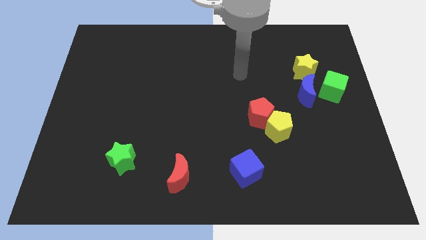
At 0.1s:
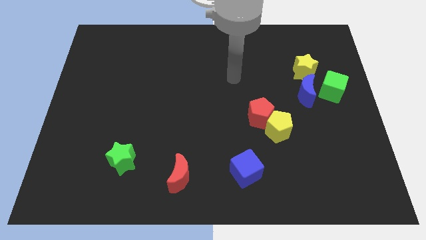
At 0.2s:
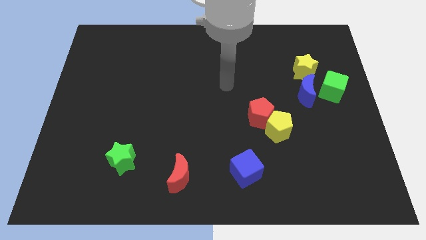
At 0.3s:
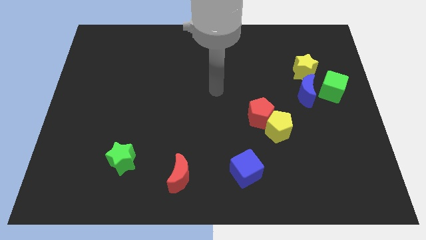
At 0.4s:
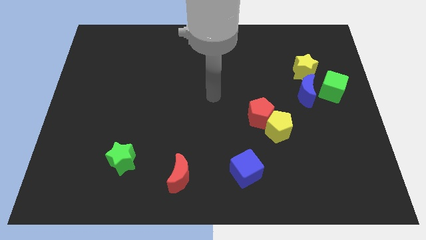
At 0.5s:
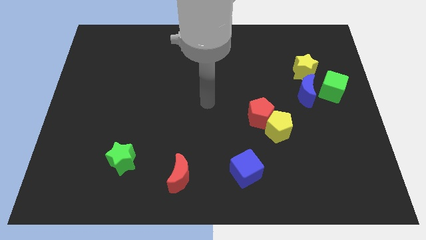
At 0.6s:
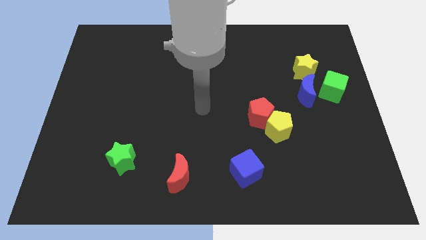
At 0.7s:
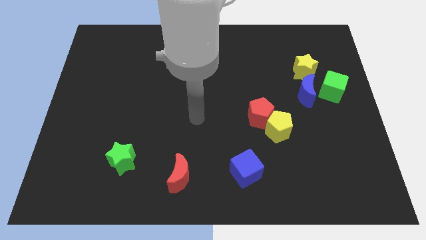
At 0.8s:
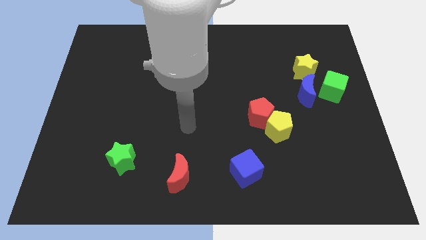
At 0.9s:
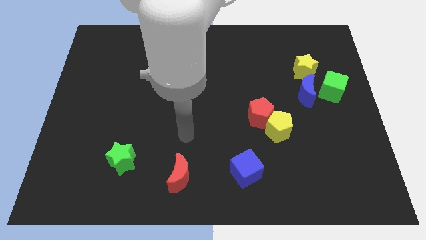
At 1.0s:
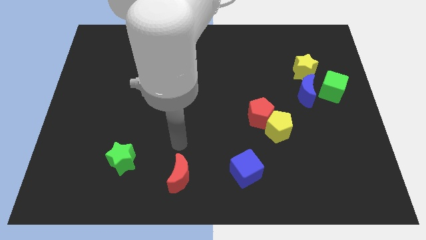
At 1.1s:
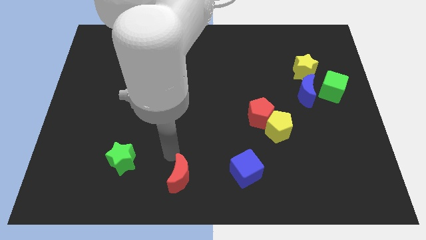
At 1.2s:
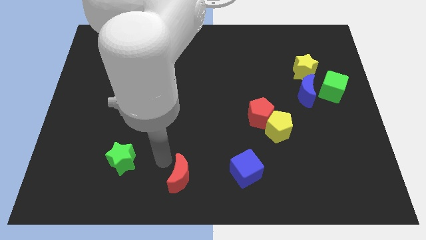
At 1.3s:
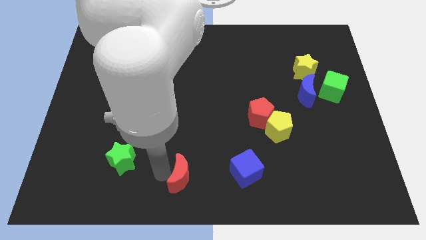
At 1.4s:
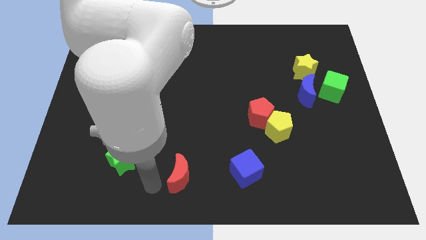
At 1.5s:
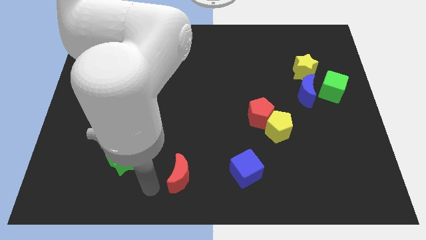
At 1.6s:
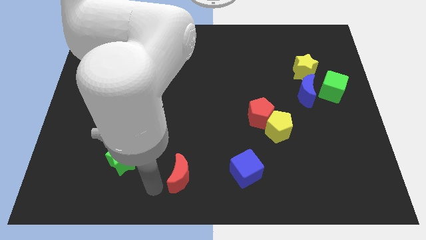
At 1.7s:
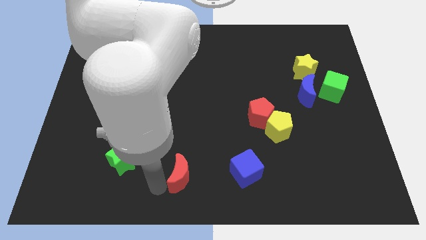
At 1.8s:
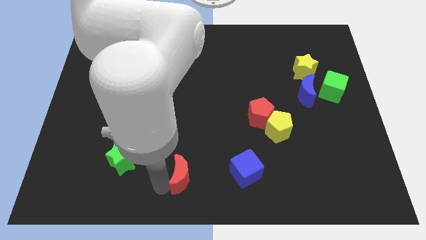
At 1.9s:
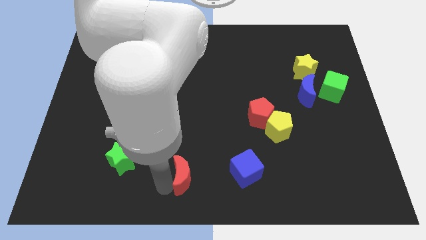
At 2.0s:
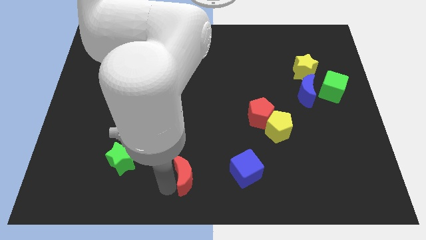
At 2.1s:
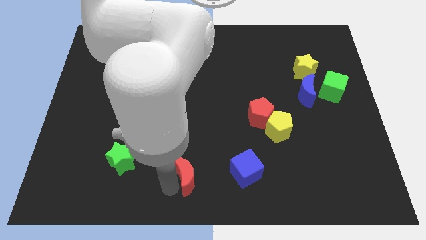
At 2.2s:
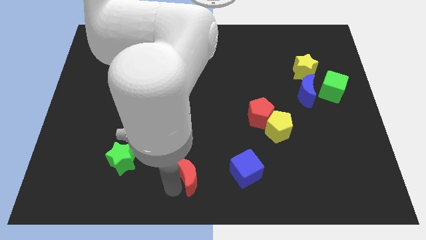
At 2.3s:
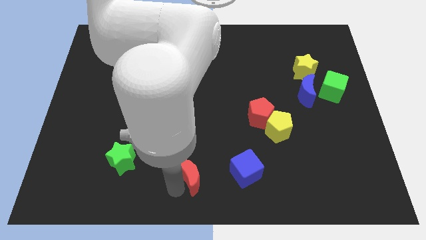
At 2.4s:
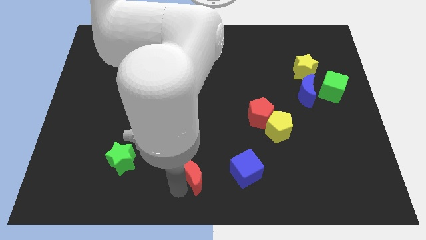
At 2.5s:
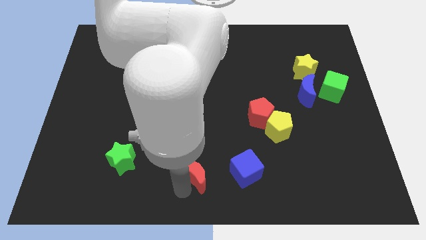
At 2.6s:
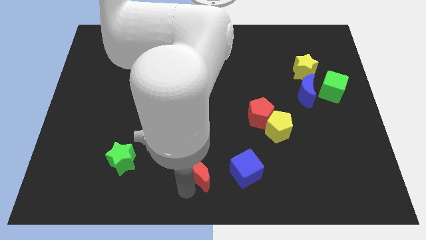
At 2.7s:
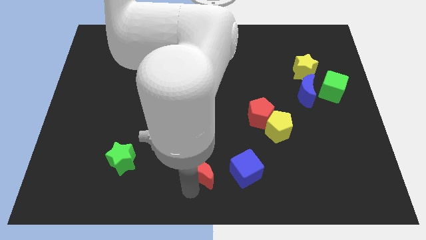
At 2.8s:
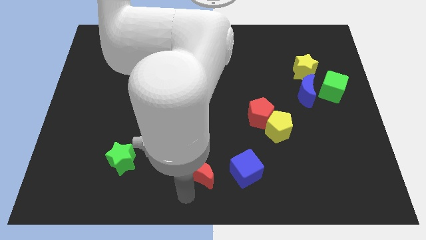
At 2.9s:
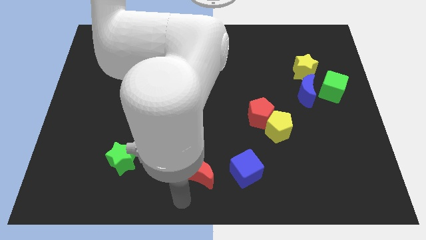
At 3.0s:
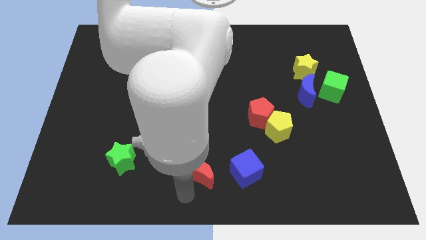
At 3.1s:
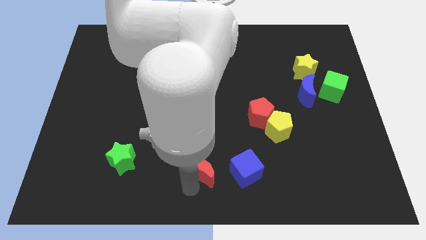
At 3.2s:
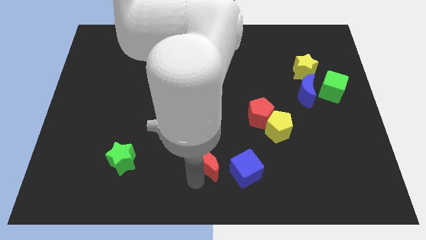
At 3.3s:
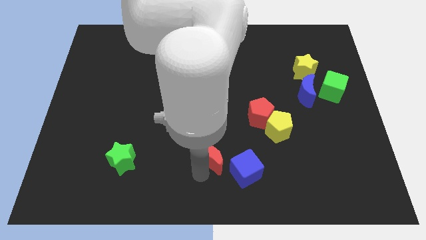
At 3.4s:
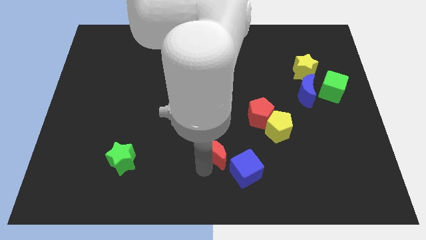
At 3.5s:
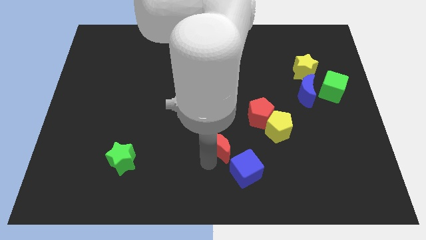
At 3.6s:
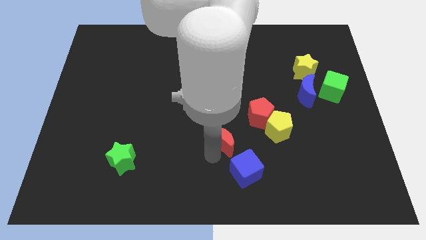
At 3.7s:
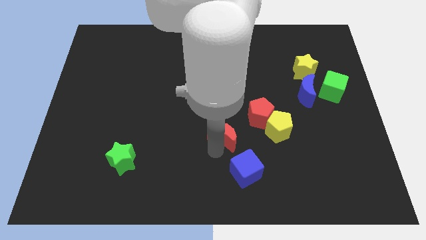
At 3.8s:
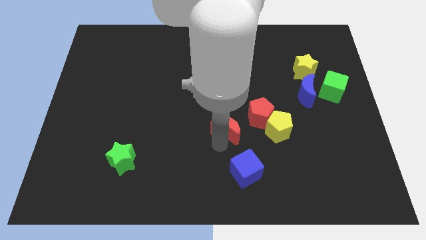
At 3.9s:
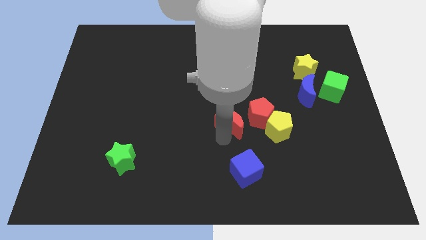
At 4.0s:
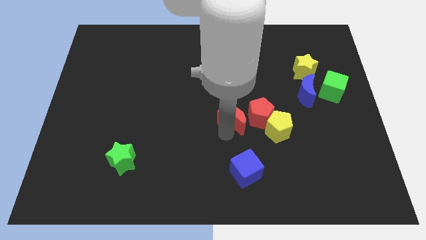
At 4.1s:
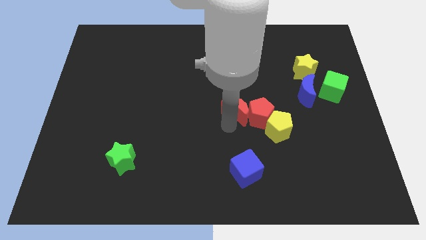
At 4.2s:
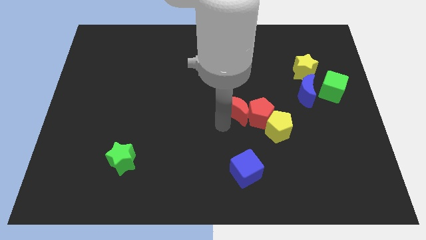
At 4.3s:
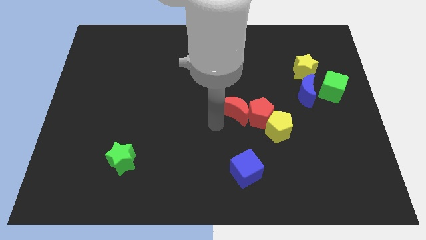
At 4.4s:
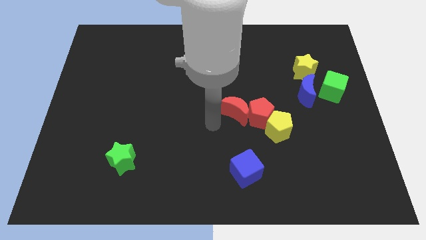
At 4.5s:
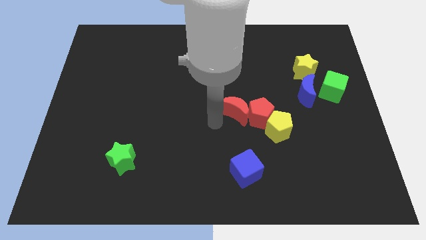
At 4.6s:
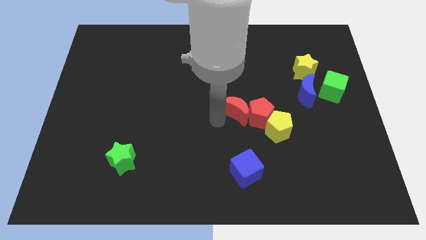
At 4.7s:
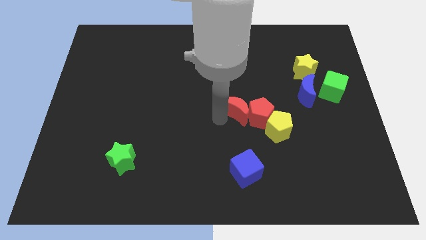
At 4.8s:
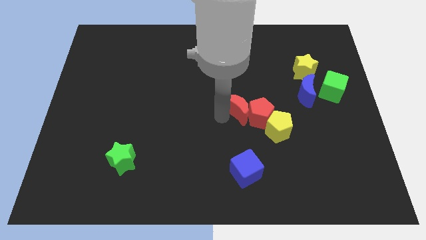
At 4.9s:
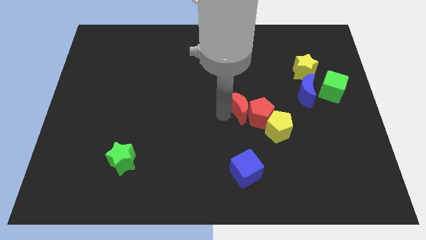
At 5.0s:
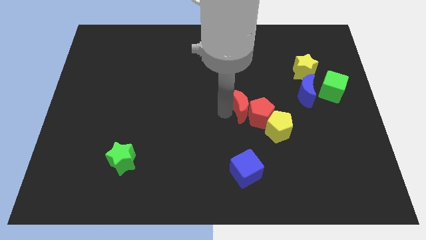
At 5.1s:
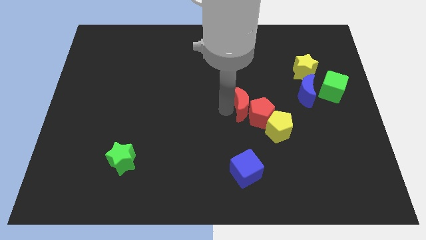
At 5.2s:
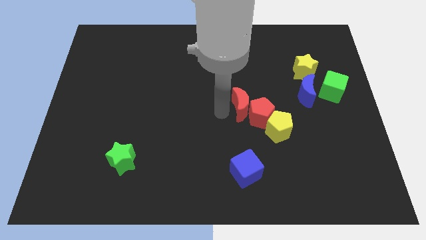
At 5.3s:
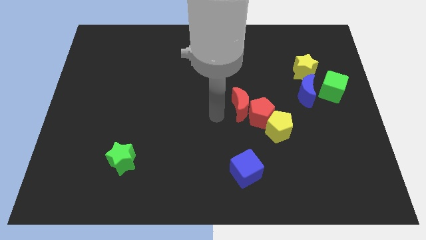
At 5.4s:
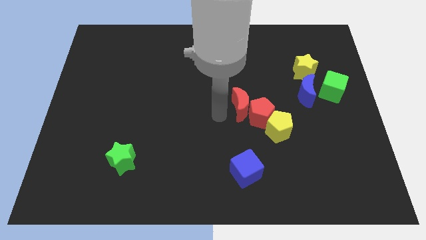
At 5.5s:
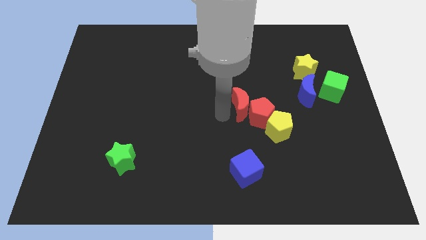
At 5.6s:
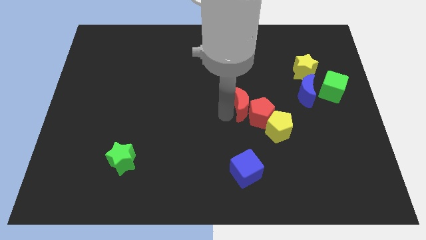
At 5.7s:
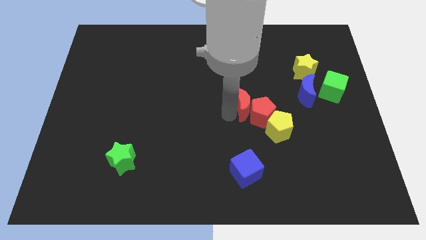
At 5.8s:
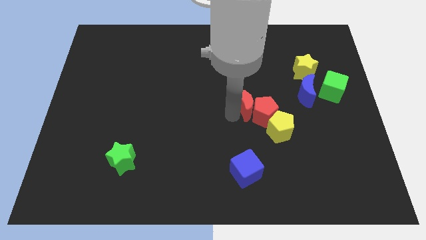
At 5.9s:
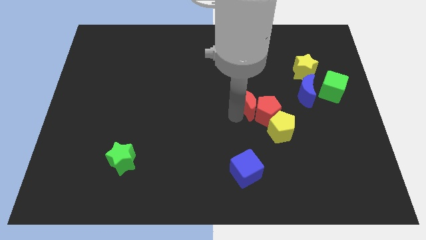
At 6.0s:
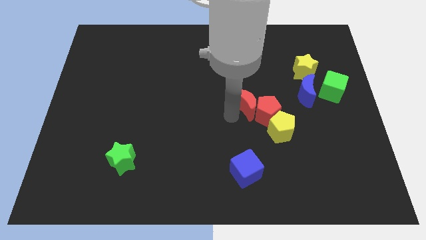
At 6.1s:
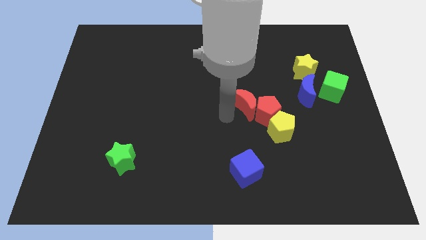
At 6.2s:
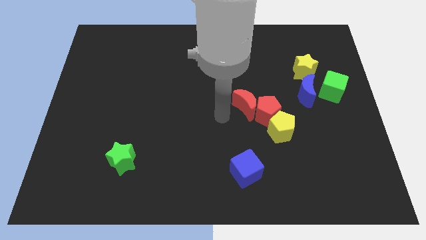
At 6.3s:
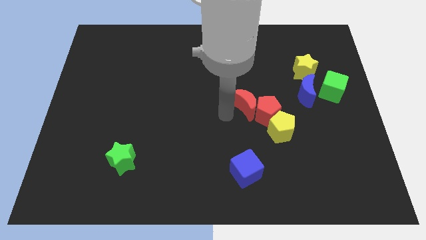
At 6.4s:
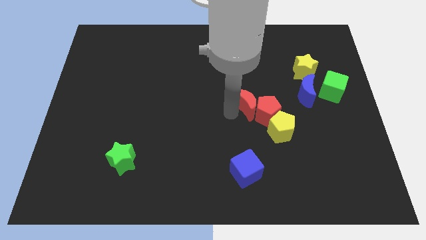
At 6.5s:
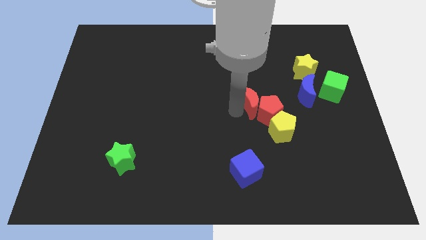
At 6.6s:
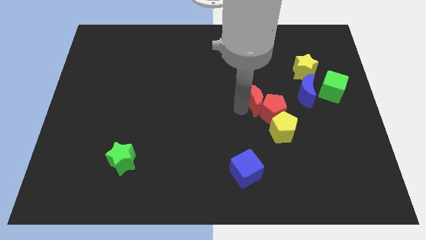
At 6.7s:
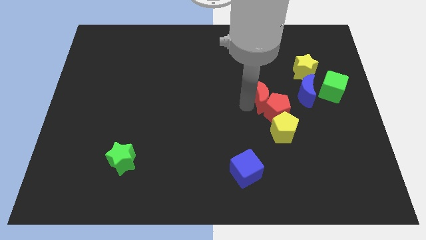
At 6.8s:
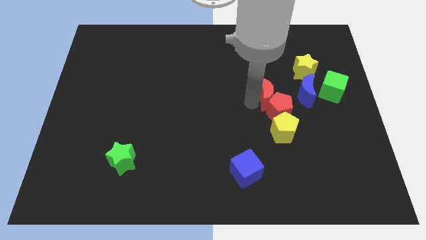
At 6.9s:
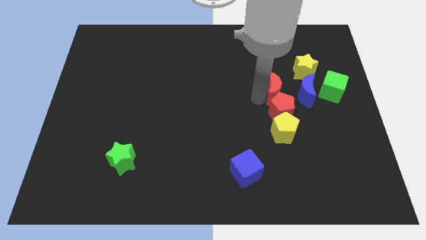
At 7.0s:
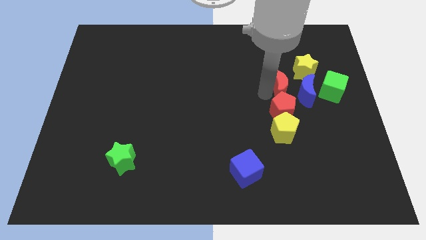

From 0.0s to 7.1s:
push the red moon close to the blue moon
